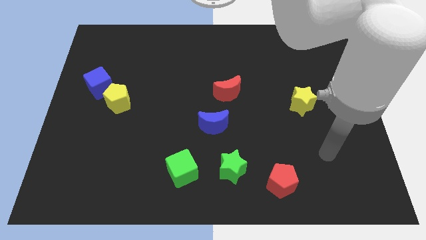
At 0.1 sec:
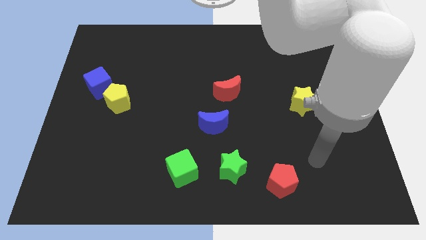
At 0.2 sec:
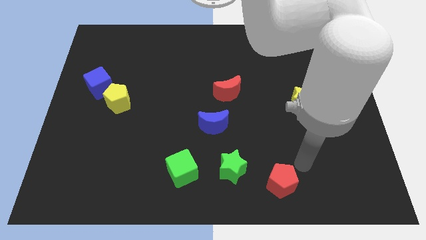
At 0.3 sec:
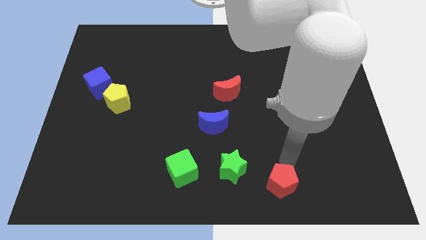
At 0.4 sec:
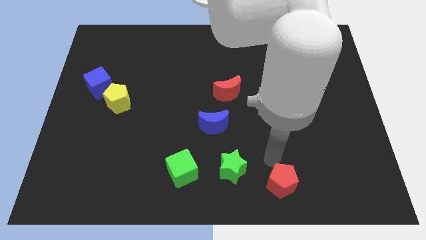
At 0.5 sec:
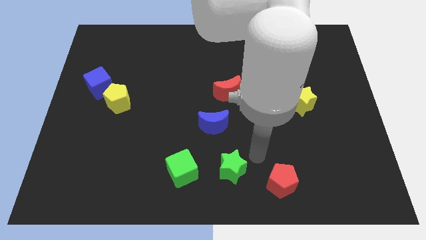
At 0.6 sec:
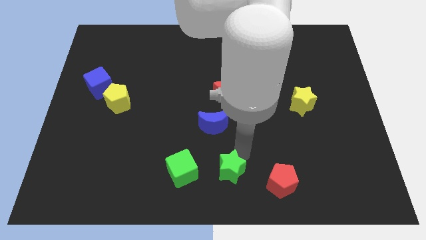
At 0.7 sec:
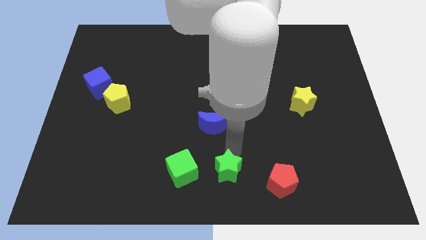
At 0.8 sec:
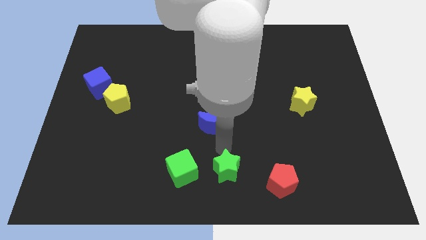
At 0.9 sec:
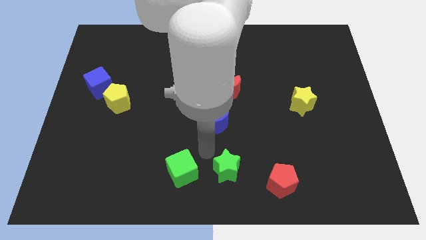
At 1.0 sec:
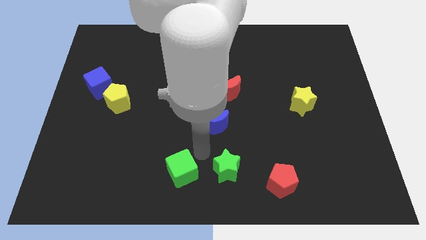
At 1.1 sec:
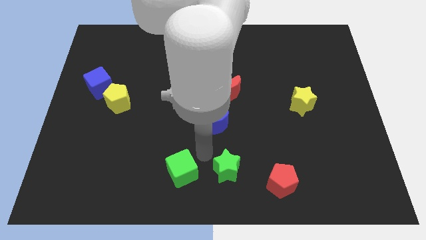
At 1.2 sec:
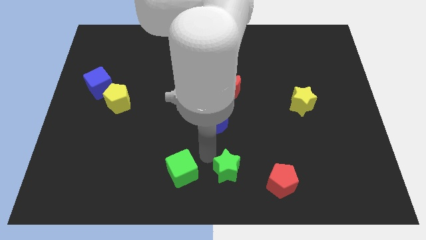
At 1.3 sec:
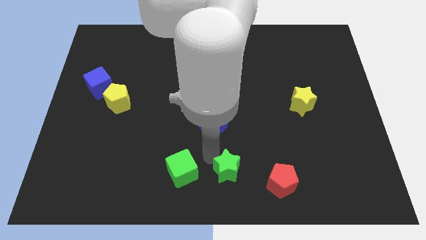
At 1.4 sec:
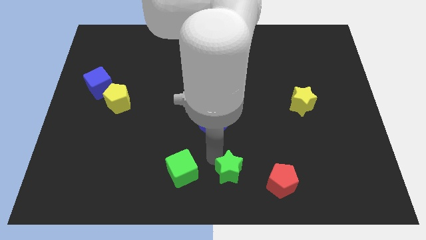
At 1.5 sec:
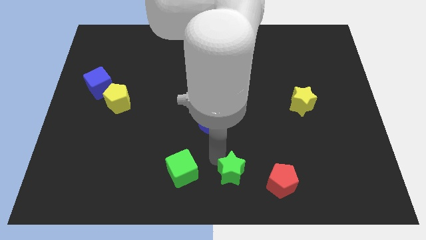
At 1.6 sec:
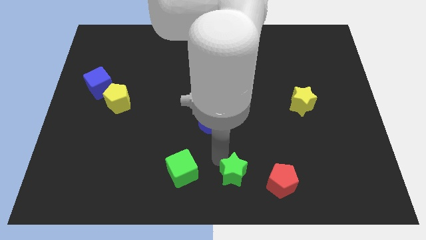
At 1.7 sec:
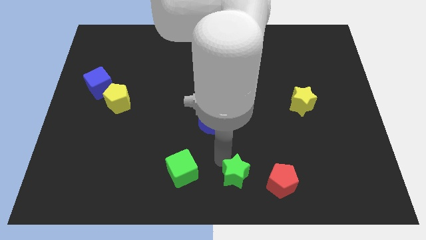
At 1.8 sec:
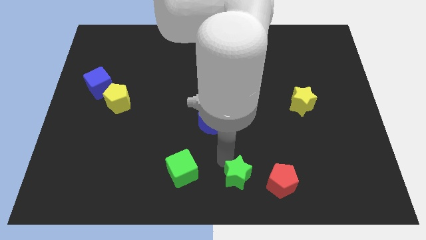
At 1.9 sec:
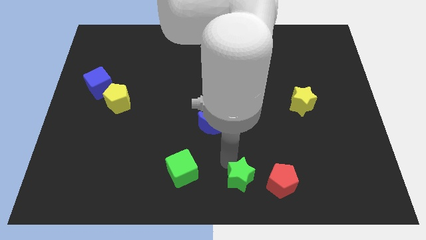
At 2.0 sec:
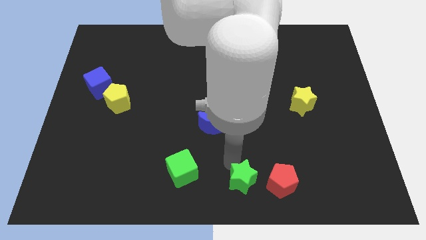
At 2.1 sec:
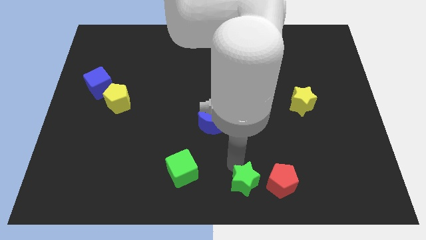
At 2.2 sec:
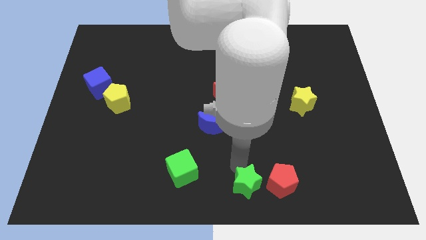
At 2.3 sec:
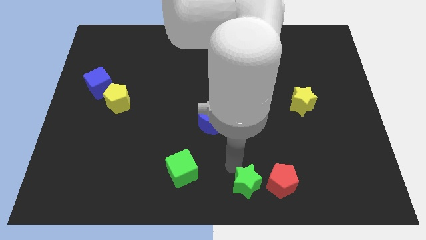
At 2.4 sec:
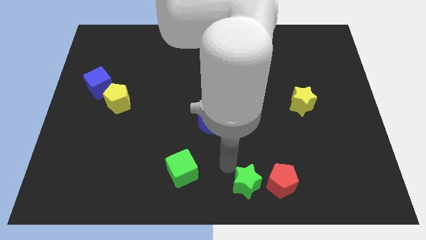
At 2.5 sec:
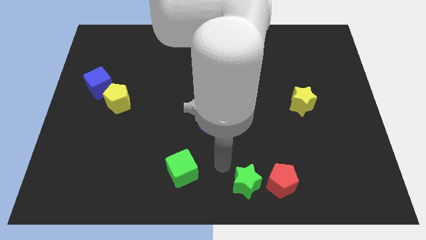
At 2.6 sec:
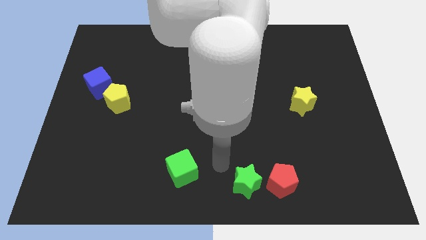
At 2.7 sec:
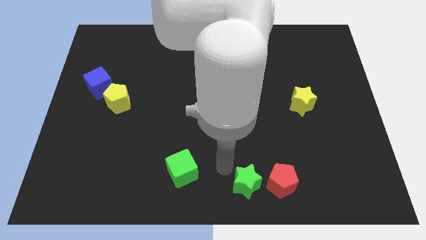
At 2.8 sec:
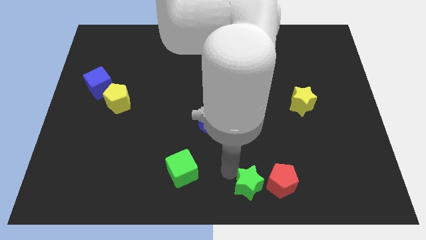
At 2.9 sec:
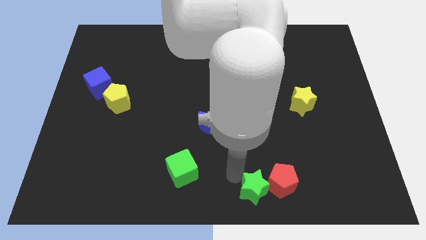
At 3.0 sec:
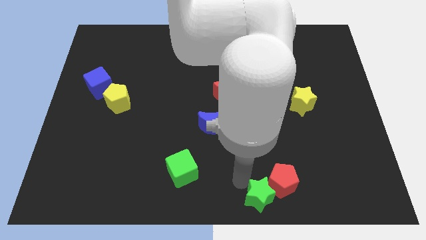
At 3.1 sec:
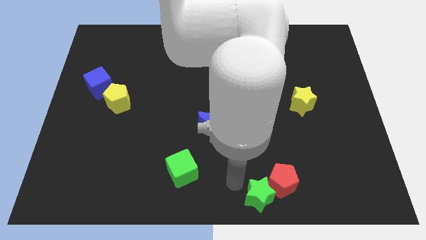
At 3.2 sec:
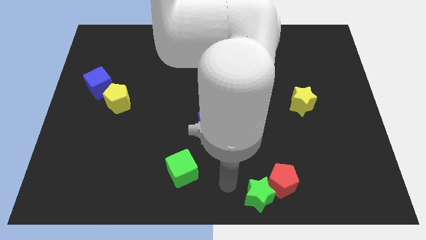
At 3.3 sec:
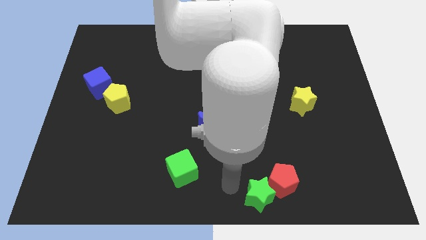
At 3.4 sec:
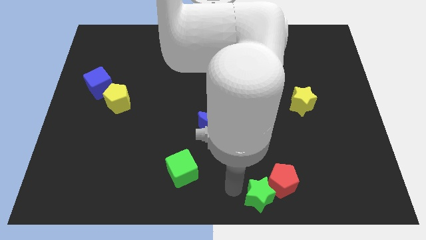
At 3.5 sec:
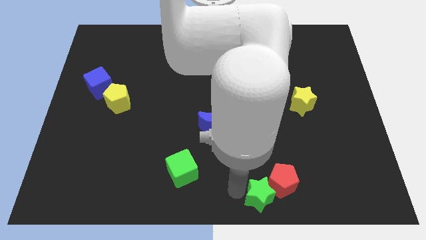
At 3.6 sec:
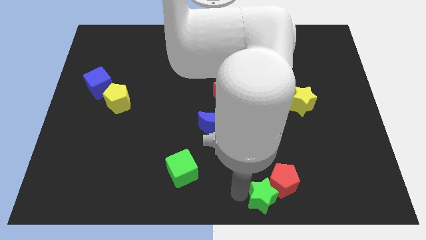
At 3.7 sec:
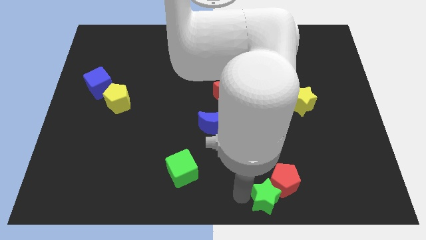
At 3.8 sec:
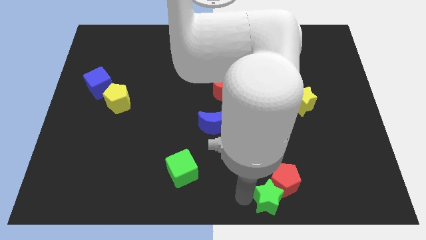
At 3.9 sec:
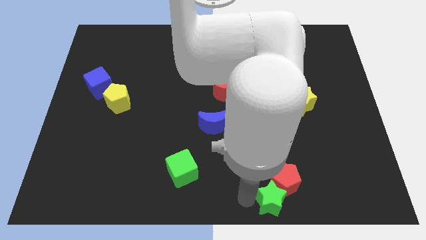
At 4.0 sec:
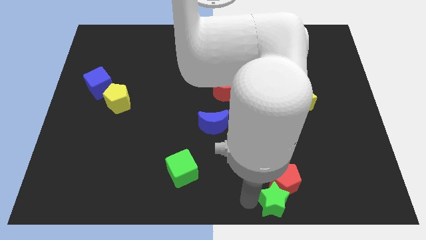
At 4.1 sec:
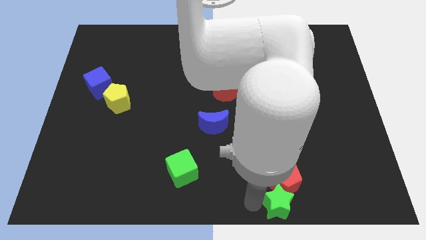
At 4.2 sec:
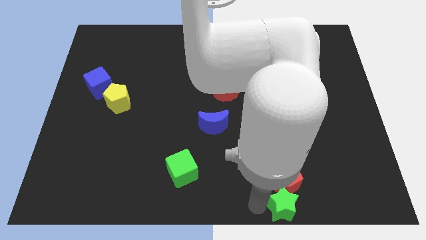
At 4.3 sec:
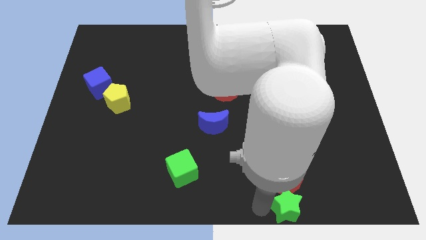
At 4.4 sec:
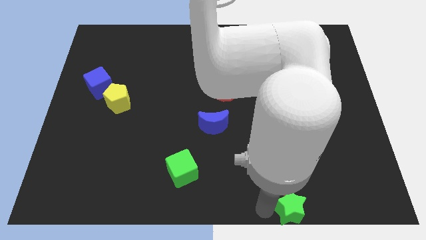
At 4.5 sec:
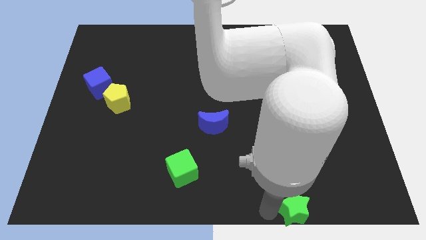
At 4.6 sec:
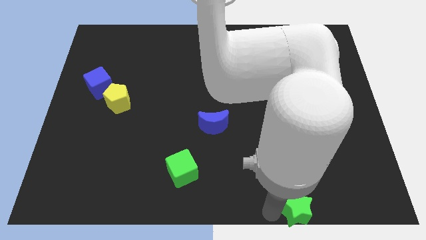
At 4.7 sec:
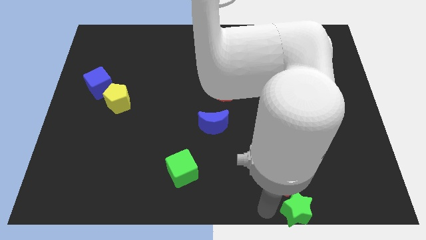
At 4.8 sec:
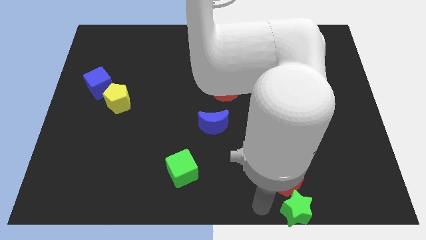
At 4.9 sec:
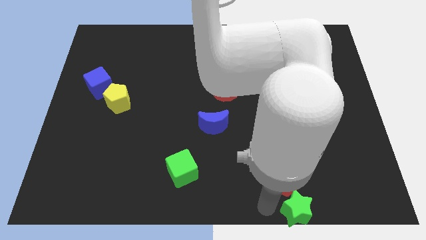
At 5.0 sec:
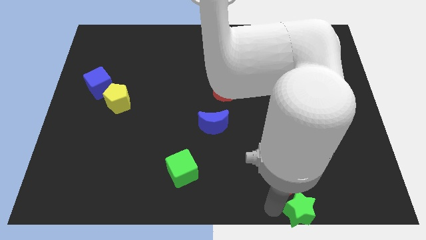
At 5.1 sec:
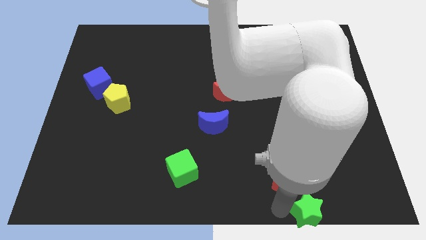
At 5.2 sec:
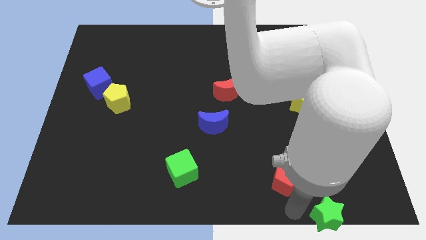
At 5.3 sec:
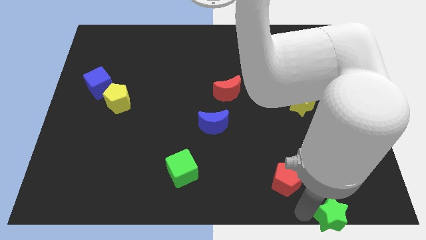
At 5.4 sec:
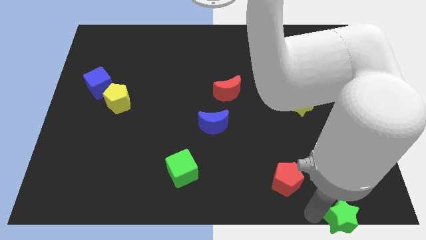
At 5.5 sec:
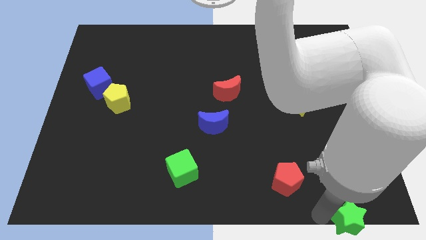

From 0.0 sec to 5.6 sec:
push the green star to the lower right corner

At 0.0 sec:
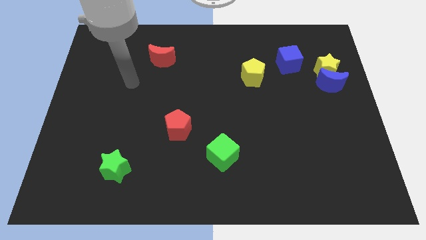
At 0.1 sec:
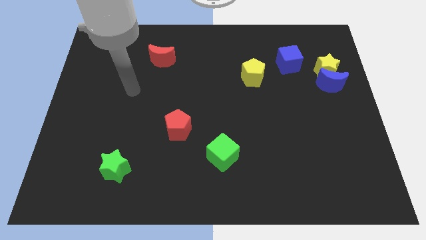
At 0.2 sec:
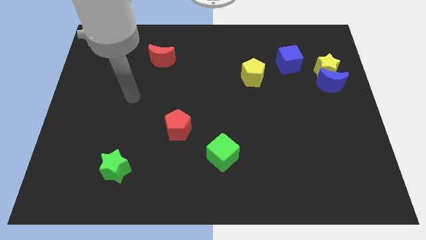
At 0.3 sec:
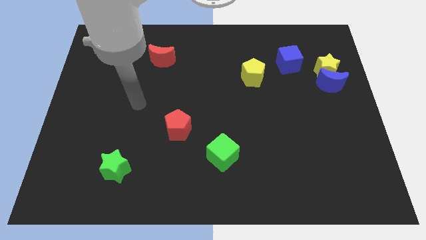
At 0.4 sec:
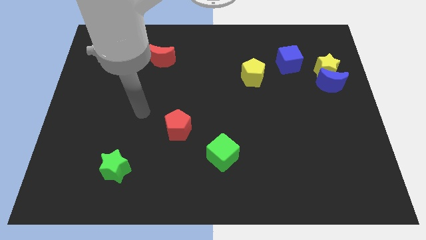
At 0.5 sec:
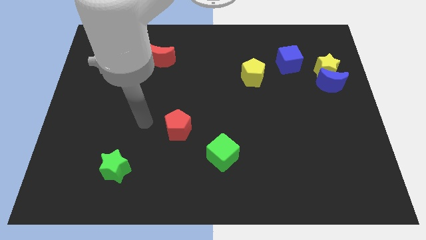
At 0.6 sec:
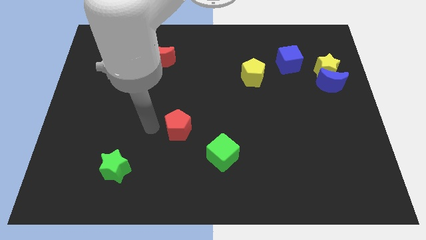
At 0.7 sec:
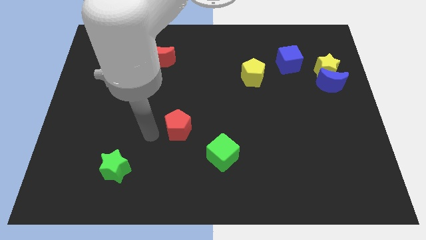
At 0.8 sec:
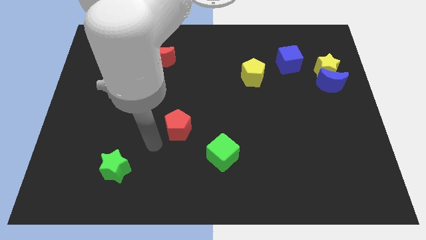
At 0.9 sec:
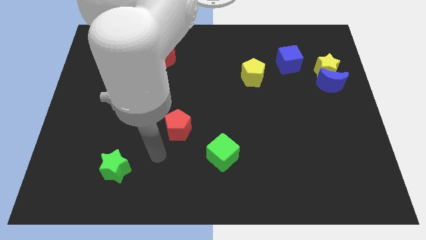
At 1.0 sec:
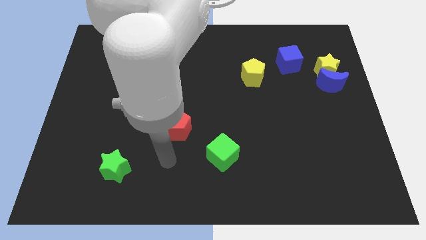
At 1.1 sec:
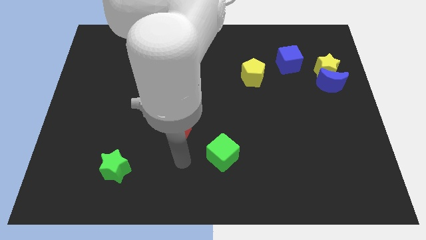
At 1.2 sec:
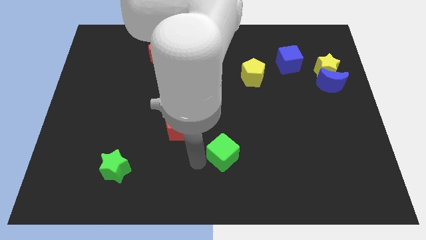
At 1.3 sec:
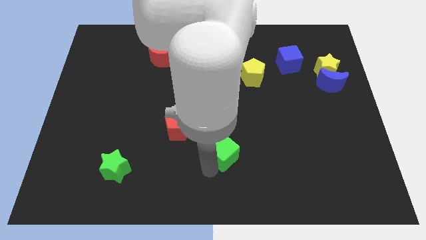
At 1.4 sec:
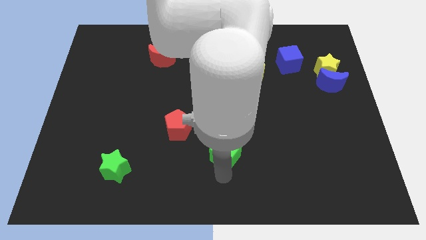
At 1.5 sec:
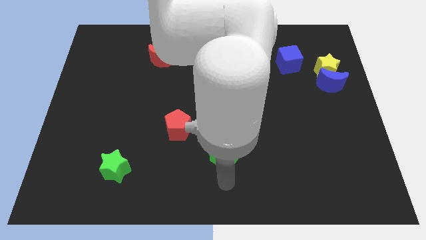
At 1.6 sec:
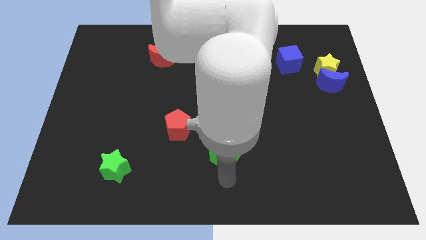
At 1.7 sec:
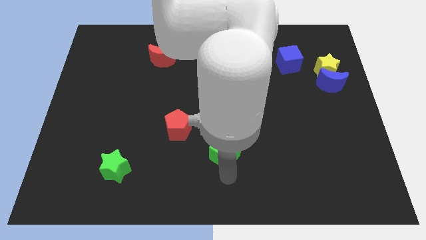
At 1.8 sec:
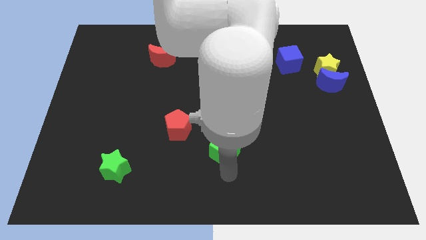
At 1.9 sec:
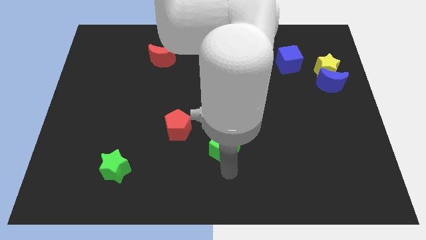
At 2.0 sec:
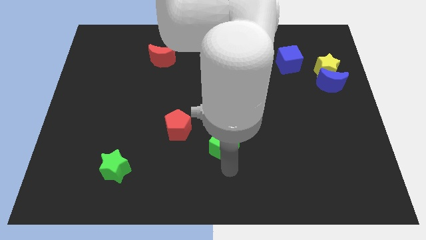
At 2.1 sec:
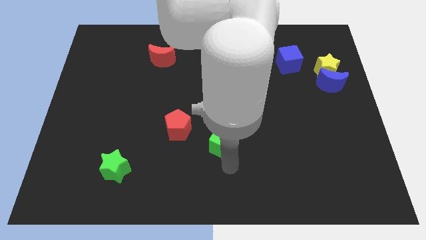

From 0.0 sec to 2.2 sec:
move the green cube to the center of the board
